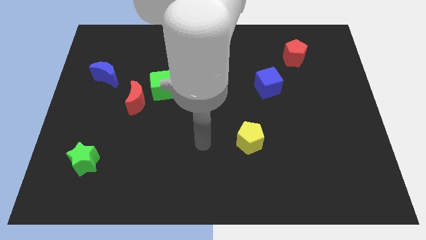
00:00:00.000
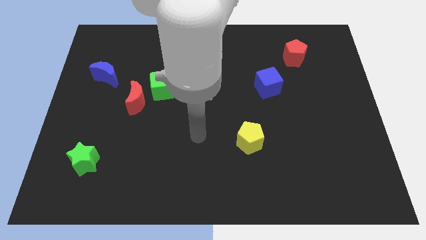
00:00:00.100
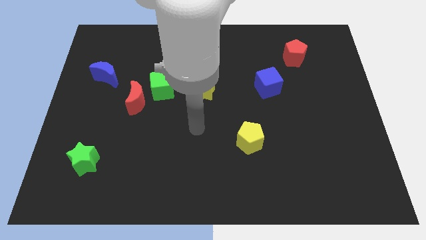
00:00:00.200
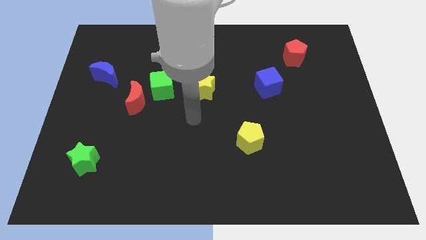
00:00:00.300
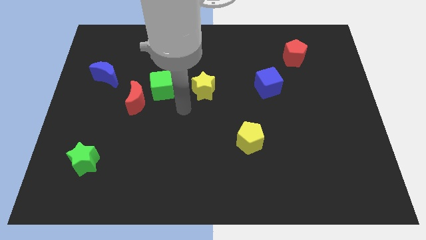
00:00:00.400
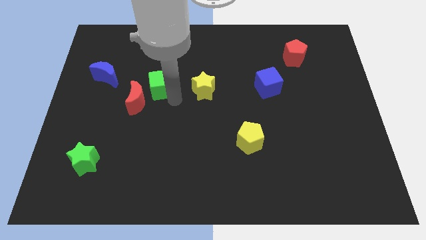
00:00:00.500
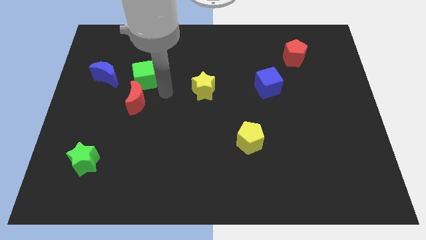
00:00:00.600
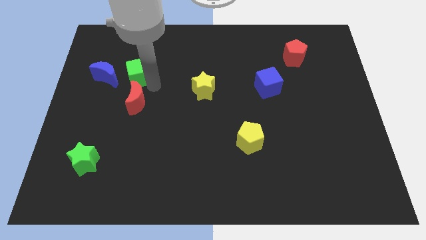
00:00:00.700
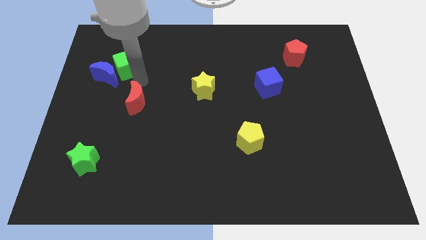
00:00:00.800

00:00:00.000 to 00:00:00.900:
move the red moon away from the green cube

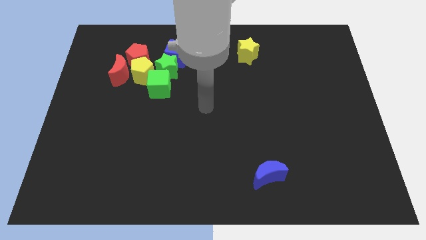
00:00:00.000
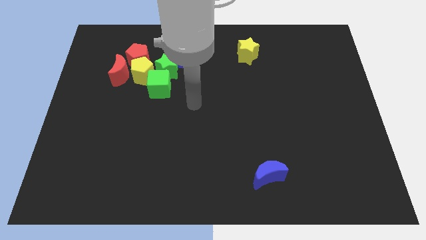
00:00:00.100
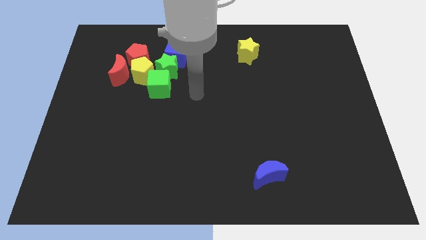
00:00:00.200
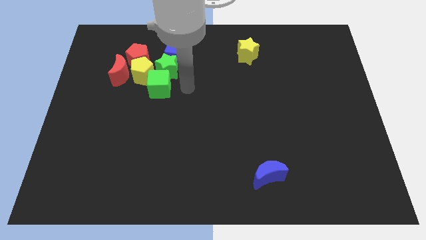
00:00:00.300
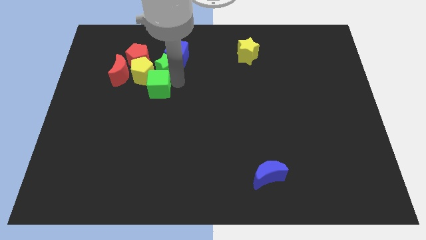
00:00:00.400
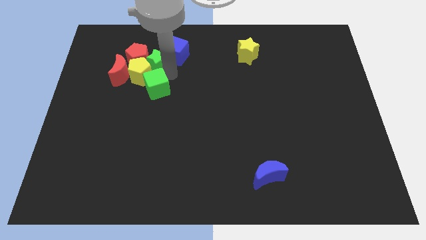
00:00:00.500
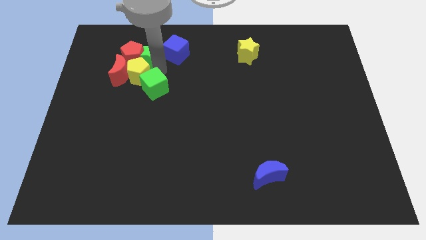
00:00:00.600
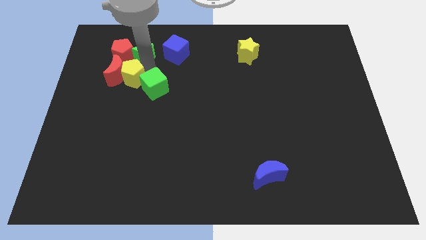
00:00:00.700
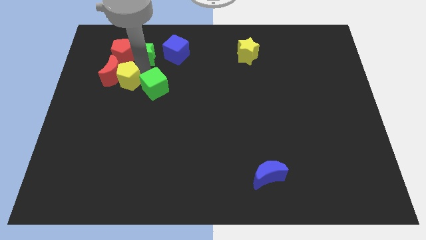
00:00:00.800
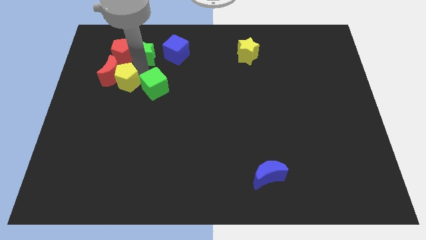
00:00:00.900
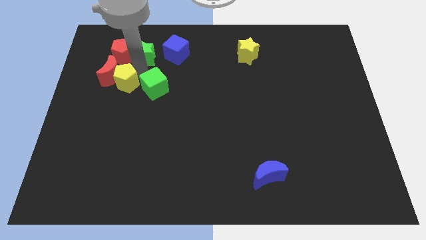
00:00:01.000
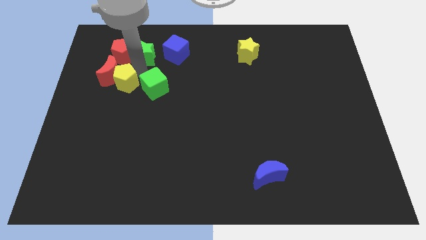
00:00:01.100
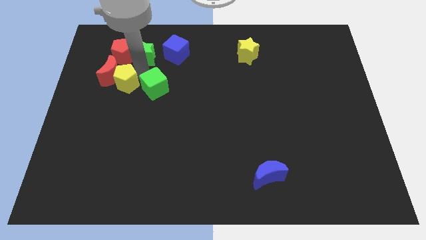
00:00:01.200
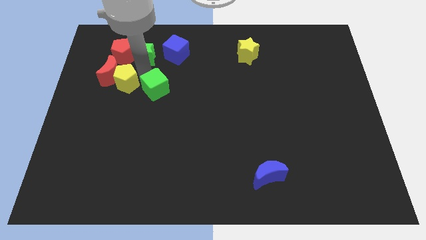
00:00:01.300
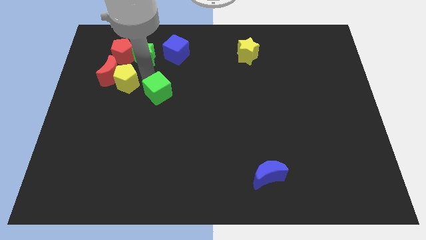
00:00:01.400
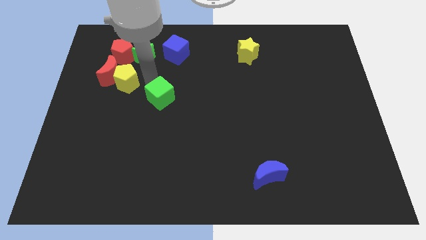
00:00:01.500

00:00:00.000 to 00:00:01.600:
separate the green cube from the green star and yellow pentagon

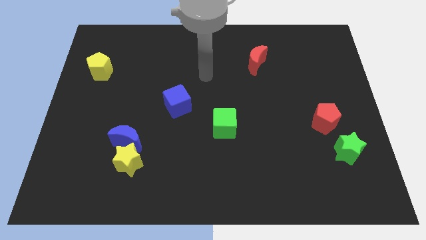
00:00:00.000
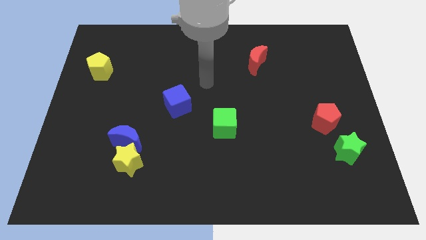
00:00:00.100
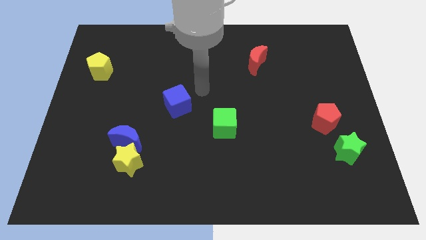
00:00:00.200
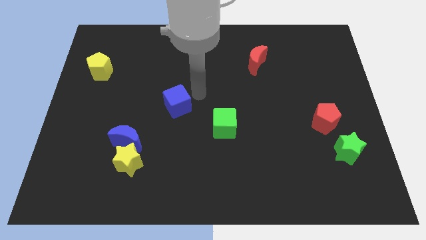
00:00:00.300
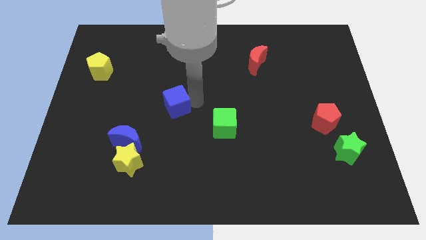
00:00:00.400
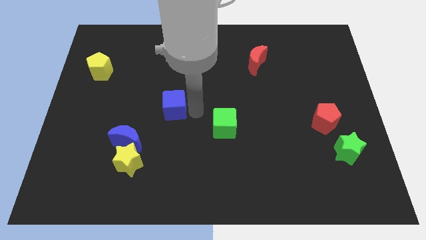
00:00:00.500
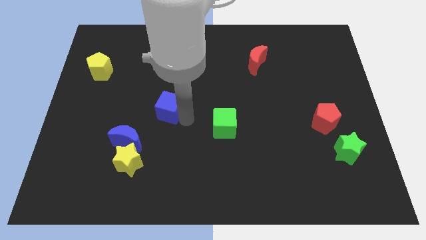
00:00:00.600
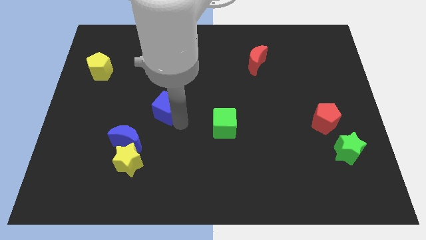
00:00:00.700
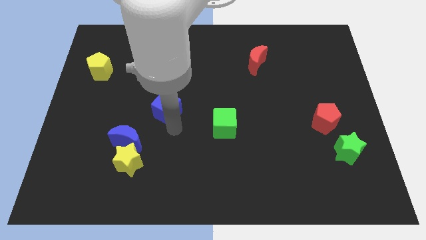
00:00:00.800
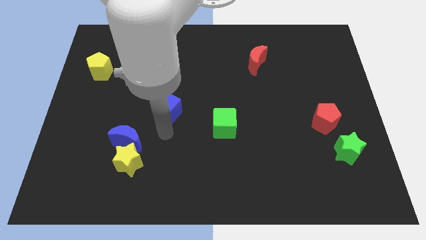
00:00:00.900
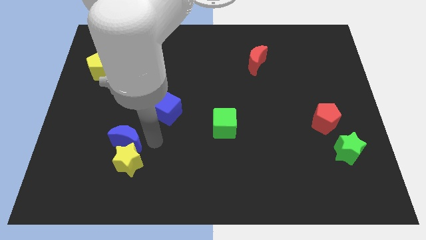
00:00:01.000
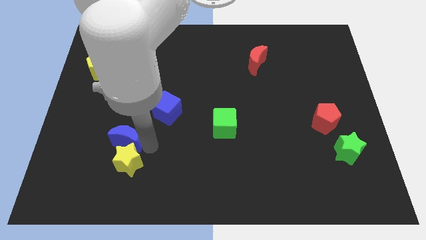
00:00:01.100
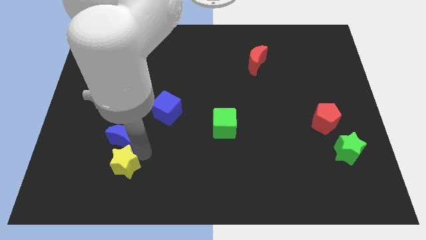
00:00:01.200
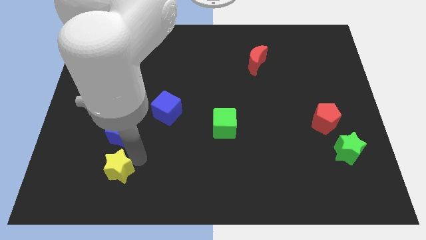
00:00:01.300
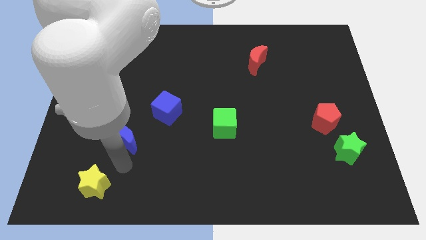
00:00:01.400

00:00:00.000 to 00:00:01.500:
separate the blue moon from the yellow star

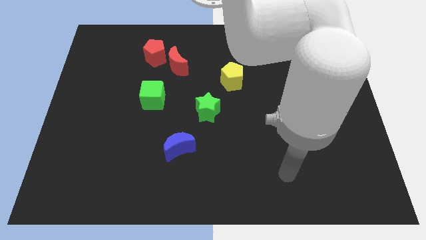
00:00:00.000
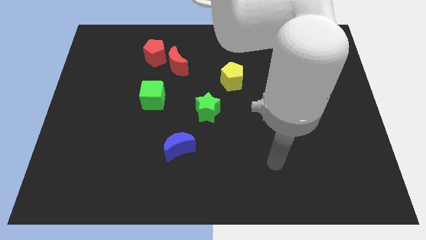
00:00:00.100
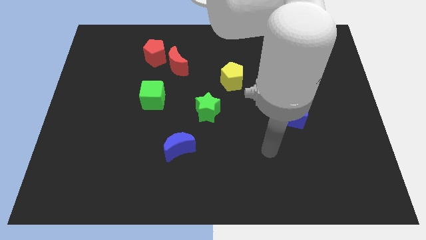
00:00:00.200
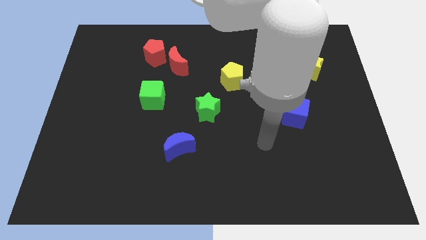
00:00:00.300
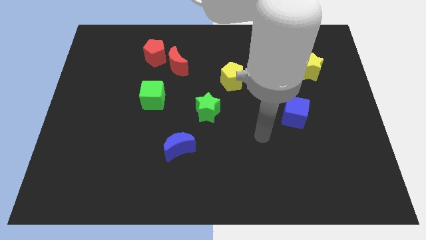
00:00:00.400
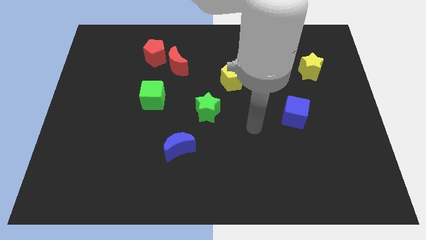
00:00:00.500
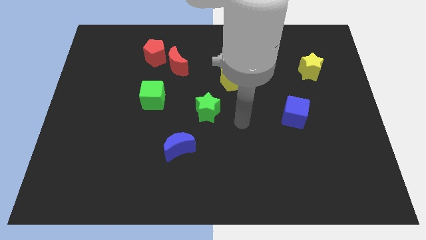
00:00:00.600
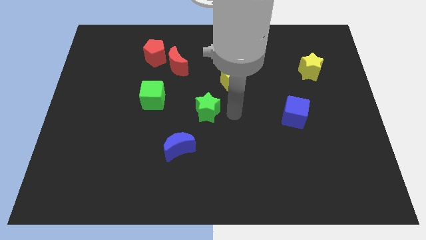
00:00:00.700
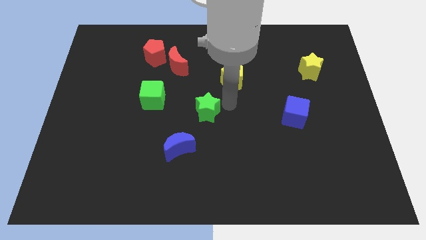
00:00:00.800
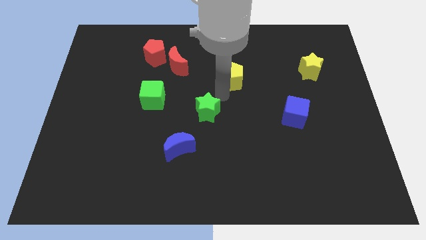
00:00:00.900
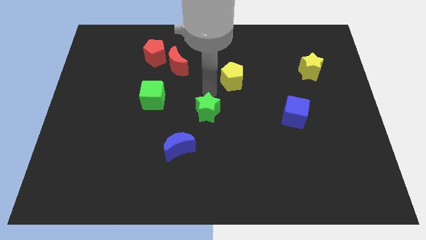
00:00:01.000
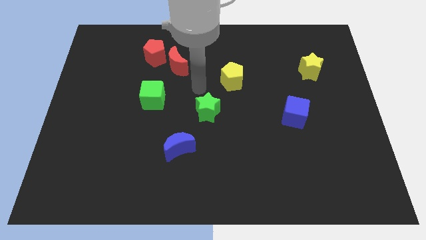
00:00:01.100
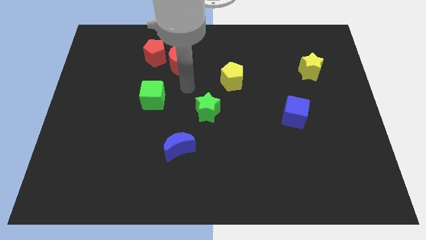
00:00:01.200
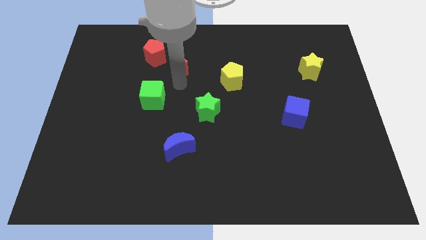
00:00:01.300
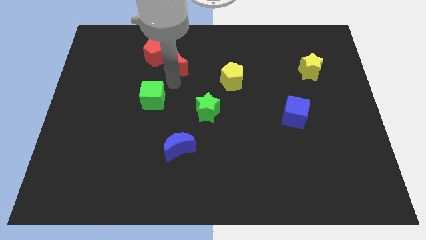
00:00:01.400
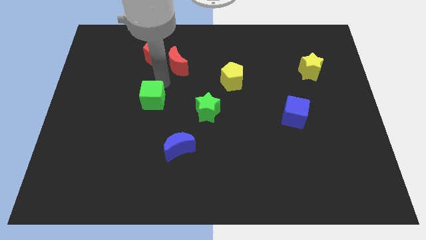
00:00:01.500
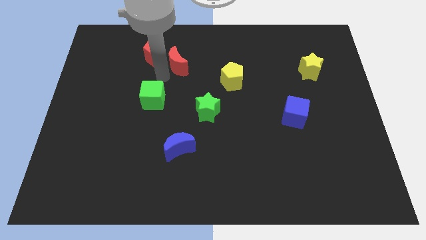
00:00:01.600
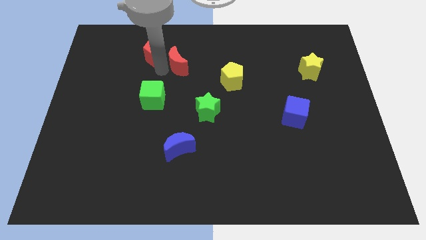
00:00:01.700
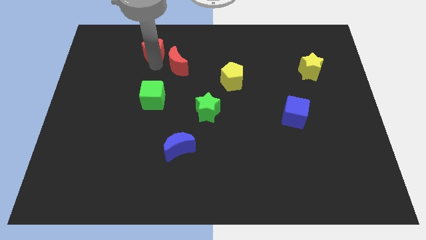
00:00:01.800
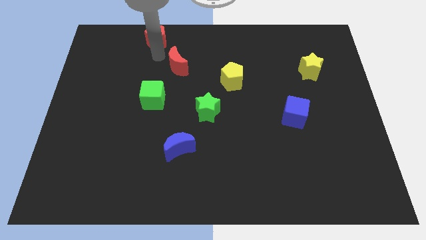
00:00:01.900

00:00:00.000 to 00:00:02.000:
separate the red moon from the red pentagon

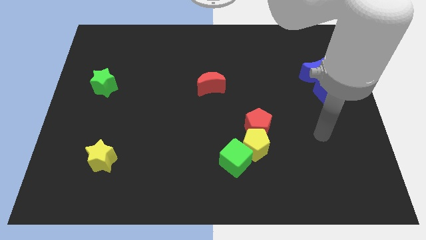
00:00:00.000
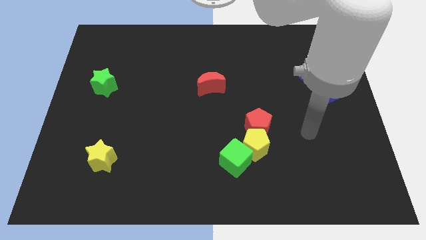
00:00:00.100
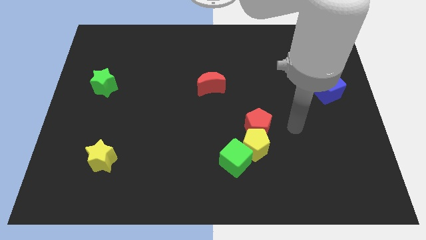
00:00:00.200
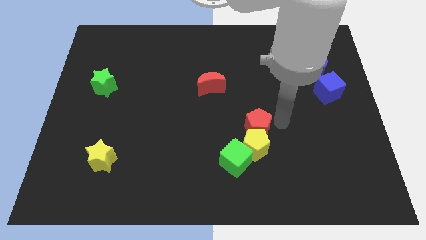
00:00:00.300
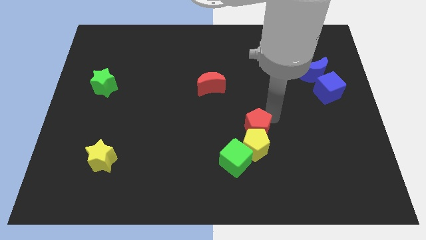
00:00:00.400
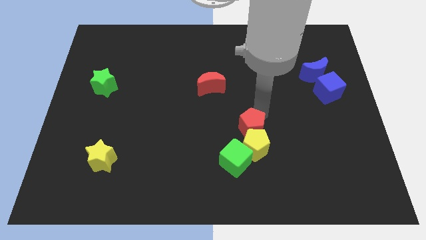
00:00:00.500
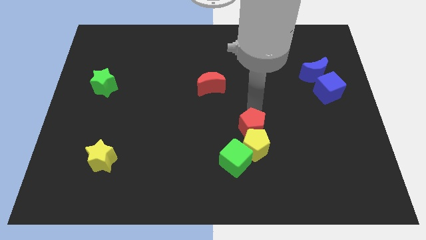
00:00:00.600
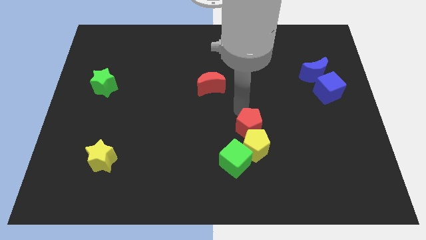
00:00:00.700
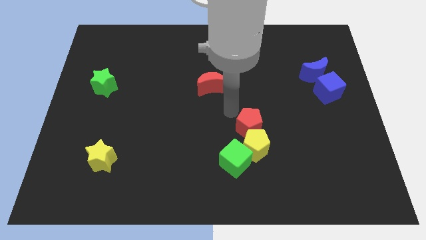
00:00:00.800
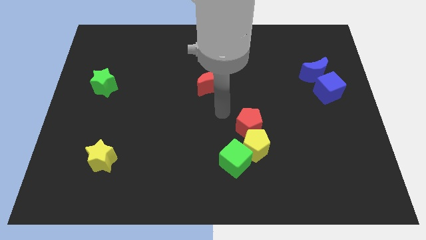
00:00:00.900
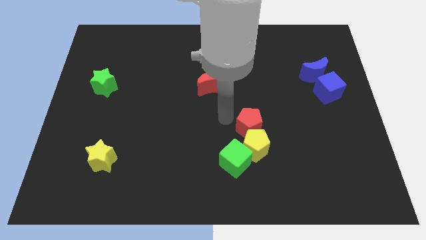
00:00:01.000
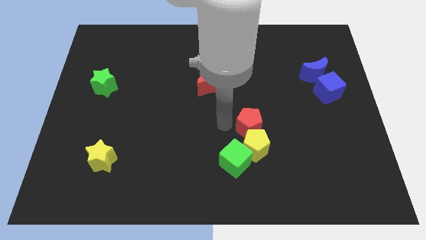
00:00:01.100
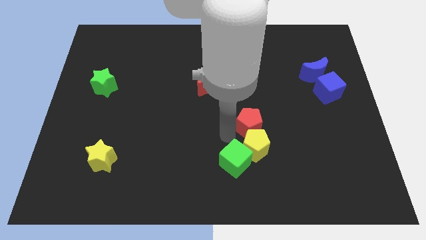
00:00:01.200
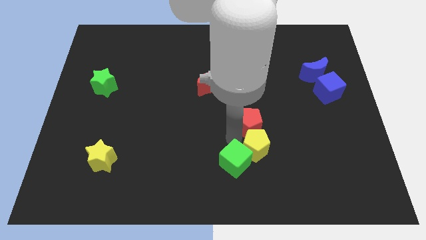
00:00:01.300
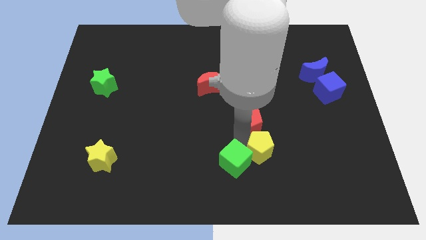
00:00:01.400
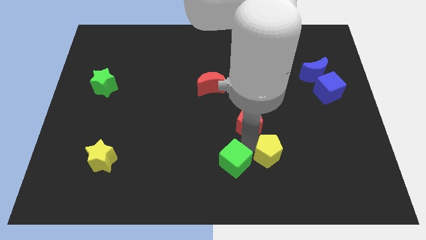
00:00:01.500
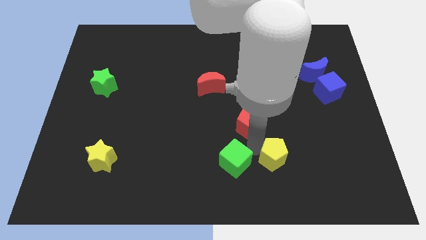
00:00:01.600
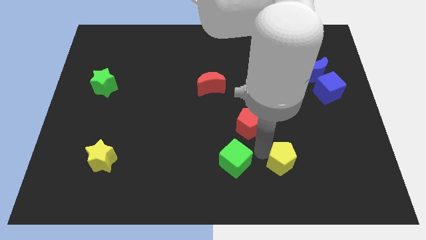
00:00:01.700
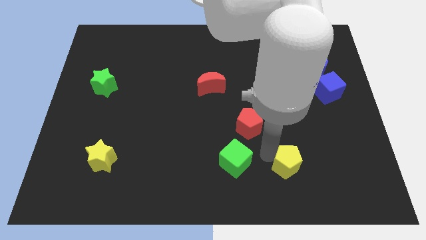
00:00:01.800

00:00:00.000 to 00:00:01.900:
pull the yellow pentagon apart from the red pentagon and green cube

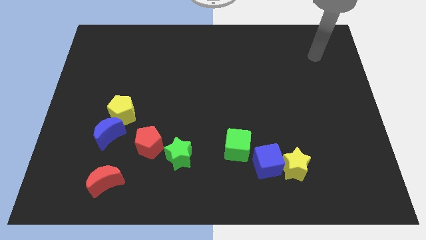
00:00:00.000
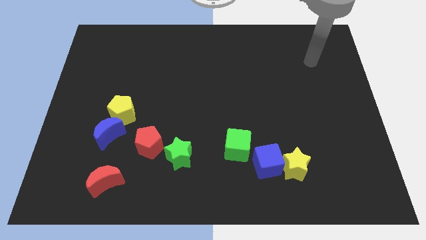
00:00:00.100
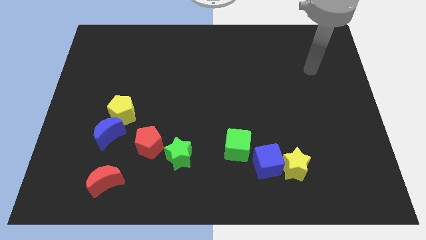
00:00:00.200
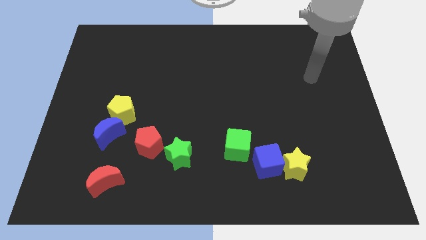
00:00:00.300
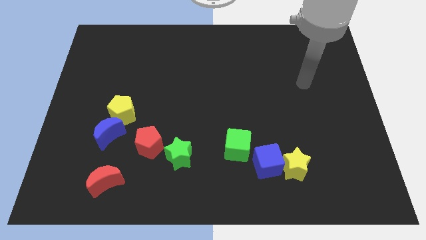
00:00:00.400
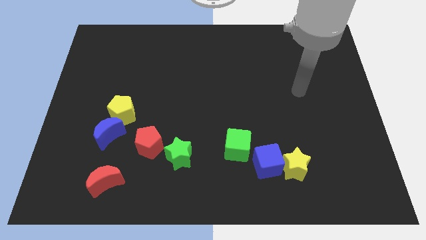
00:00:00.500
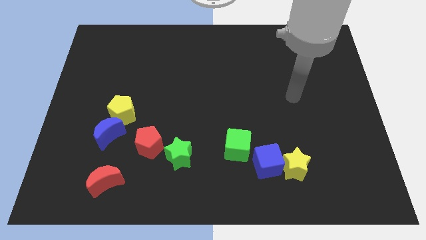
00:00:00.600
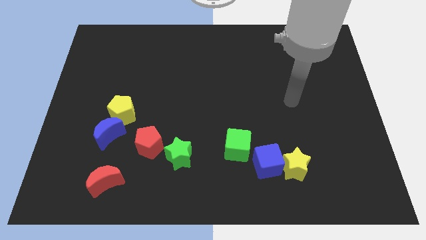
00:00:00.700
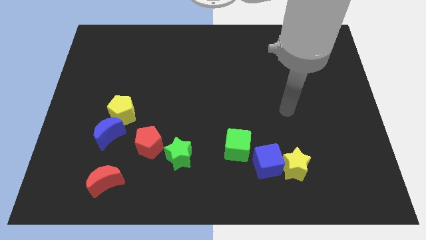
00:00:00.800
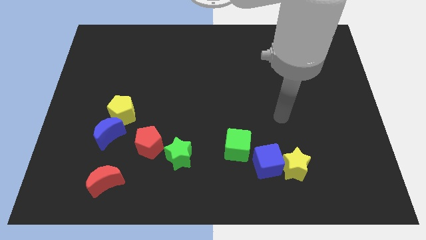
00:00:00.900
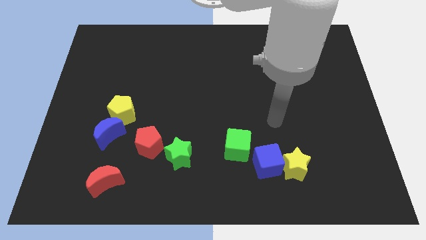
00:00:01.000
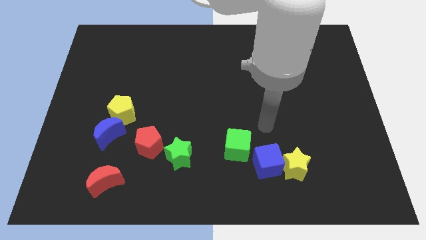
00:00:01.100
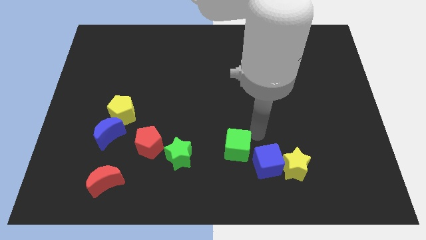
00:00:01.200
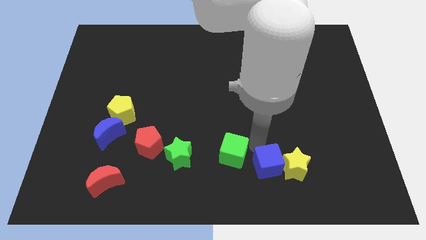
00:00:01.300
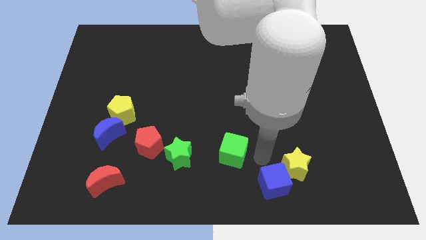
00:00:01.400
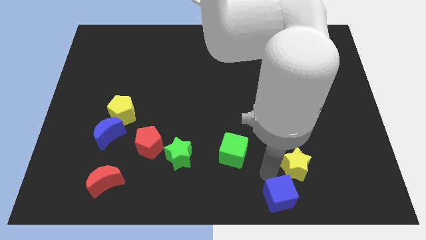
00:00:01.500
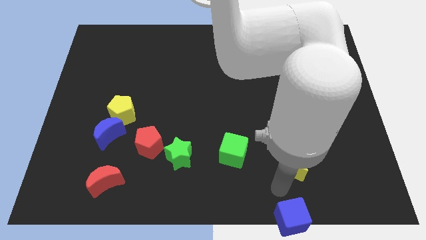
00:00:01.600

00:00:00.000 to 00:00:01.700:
move the yellow star away from the blue cube
